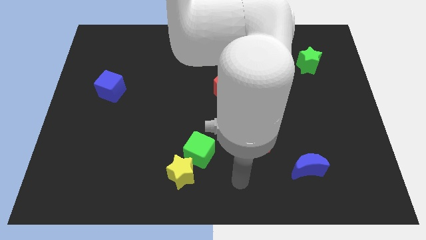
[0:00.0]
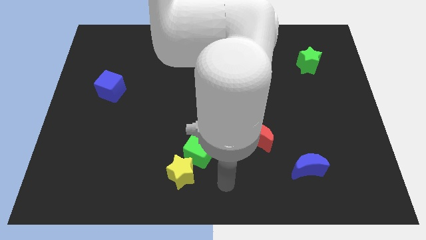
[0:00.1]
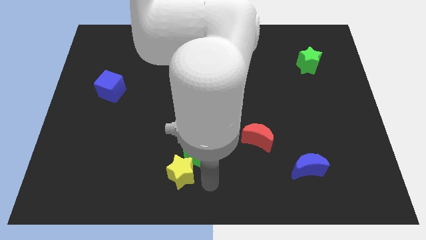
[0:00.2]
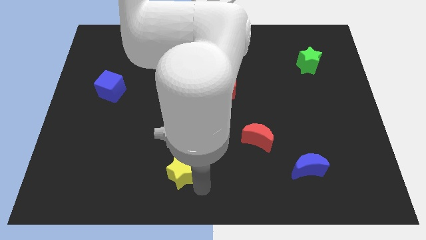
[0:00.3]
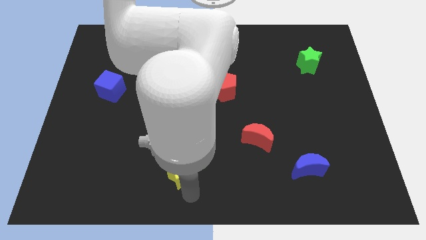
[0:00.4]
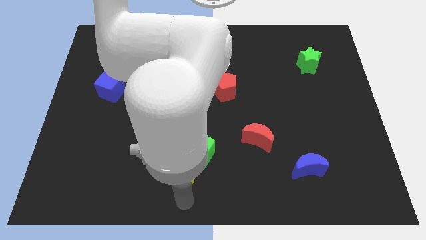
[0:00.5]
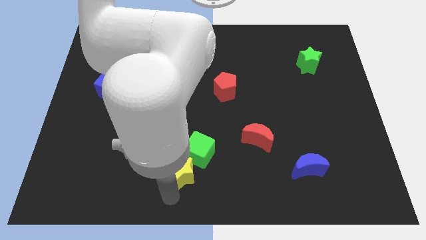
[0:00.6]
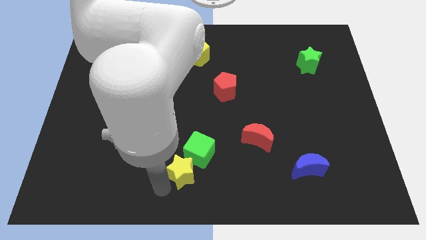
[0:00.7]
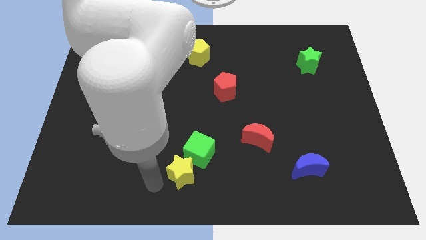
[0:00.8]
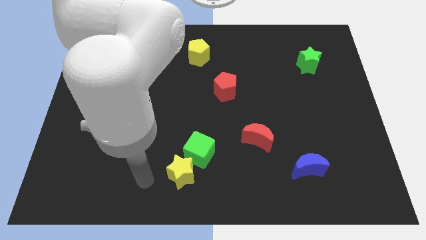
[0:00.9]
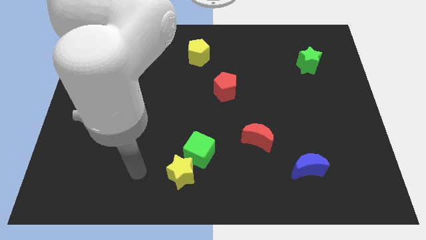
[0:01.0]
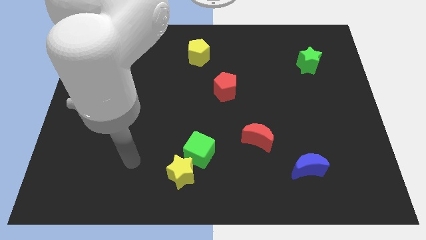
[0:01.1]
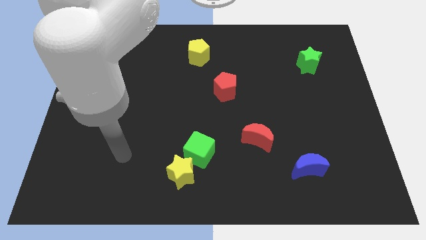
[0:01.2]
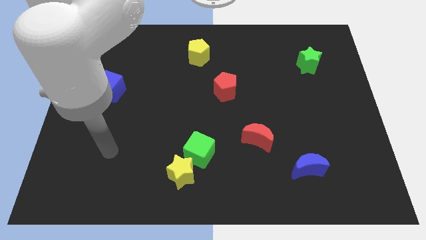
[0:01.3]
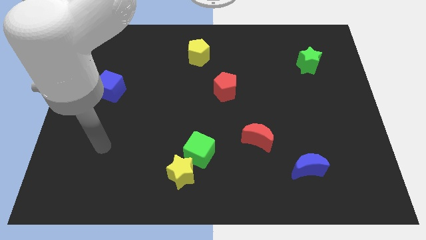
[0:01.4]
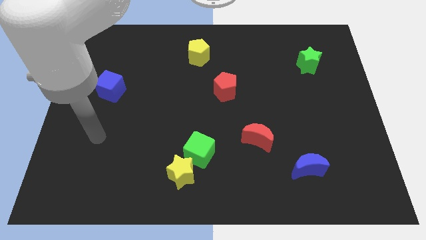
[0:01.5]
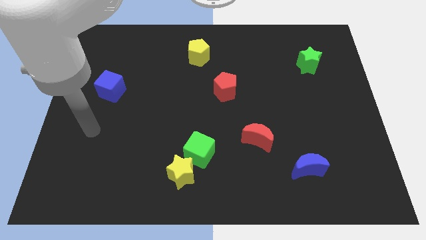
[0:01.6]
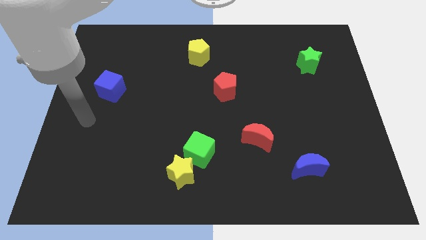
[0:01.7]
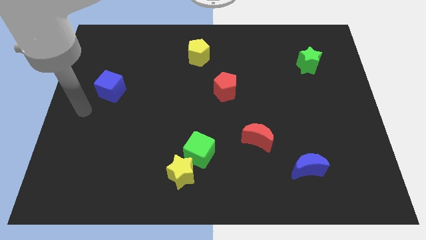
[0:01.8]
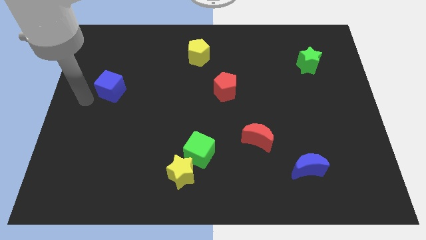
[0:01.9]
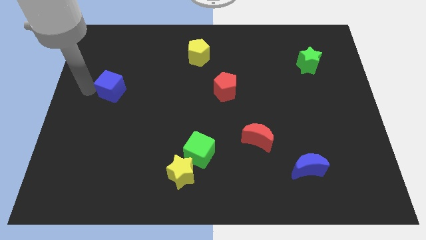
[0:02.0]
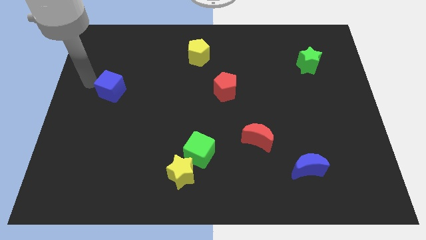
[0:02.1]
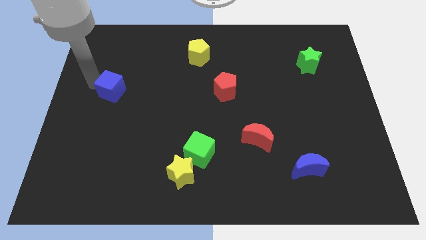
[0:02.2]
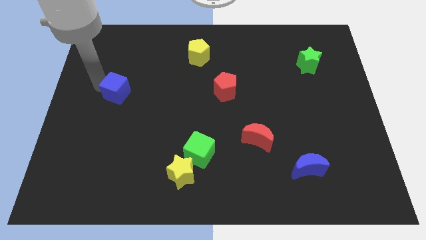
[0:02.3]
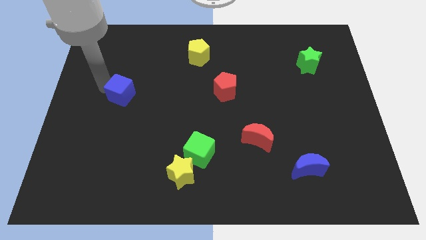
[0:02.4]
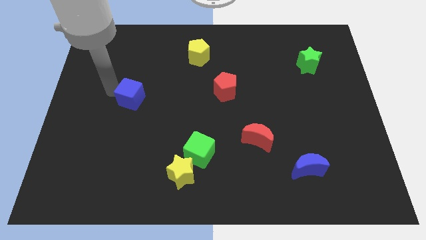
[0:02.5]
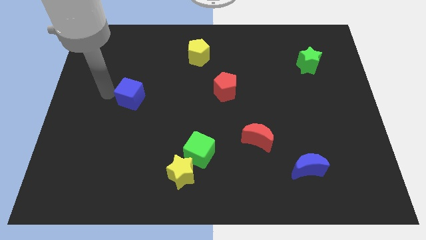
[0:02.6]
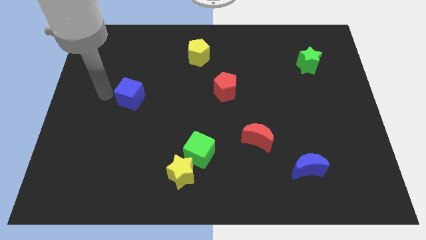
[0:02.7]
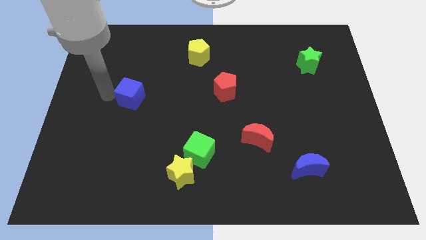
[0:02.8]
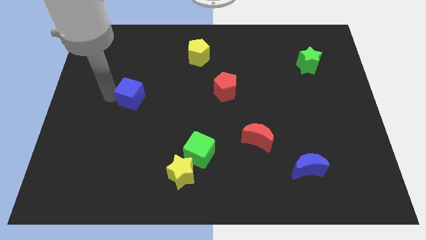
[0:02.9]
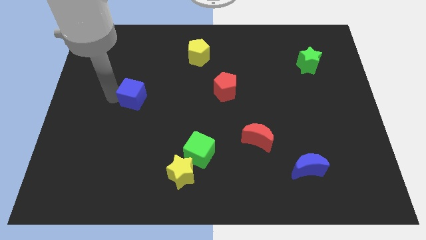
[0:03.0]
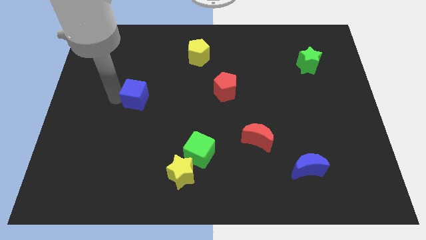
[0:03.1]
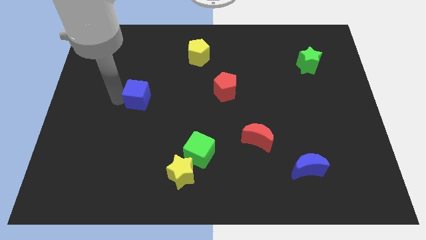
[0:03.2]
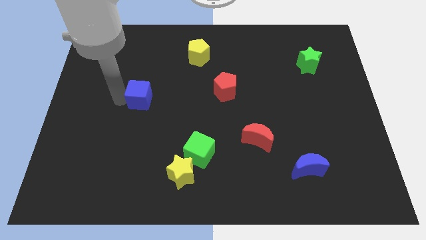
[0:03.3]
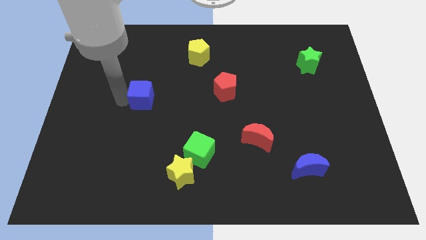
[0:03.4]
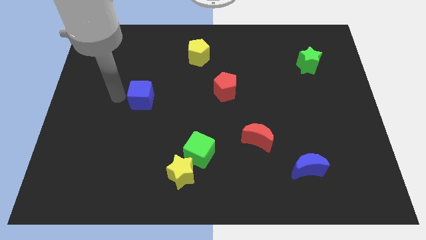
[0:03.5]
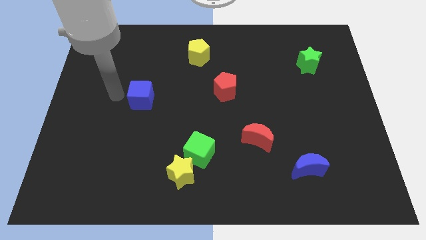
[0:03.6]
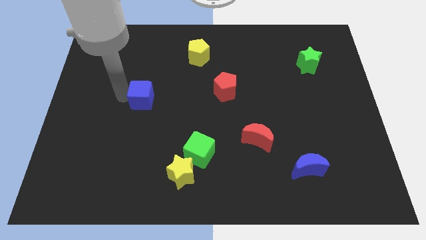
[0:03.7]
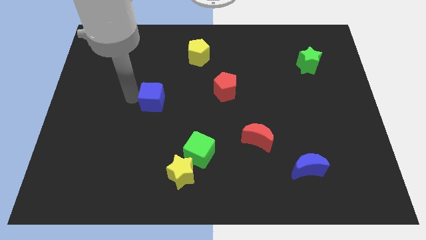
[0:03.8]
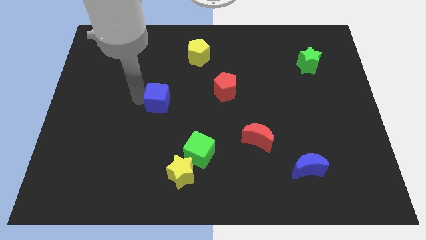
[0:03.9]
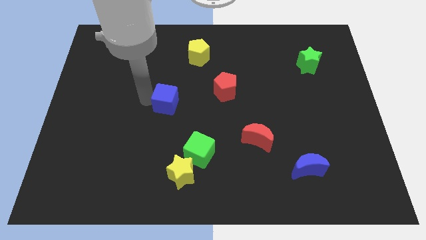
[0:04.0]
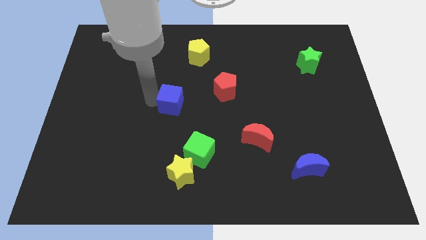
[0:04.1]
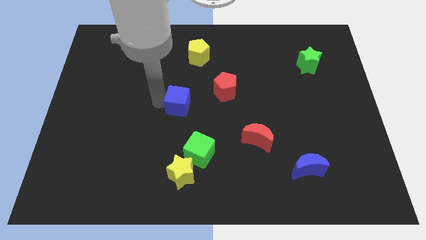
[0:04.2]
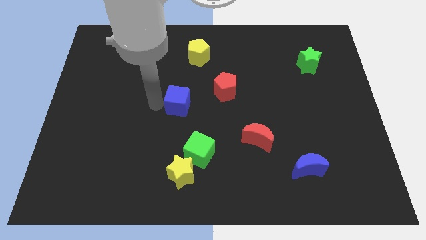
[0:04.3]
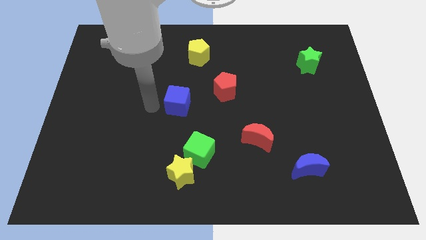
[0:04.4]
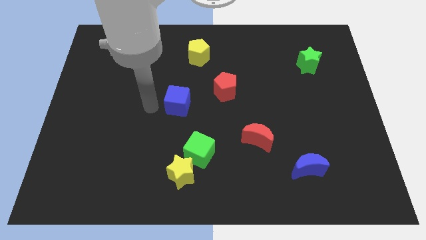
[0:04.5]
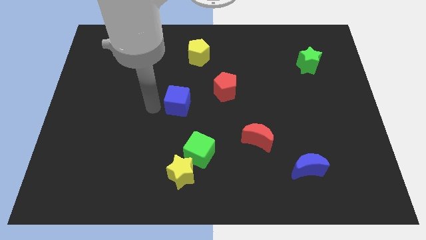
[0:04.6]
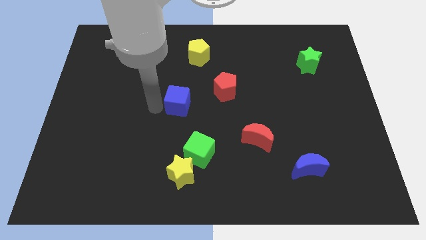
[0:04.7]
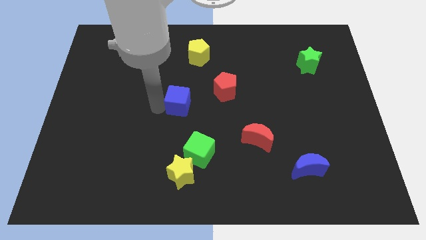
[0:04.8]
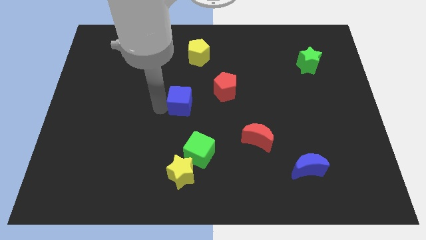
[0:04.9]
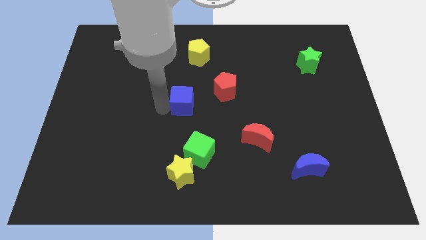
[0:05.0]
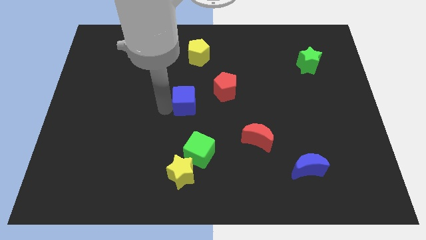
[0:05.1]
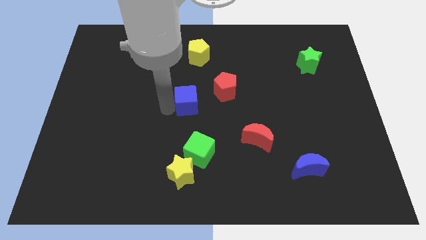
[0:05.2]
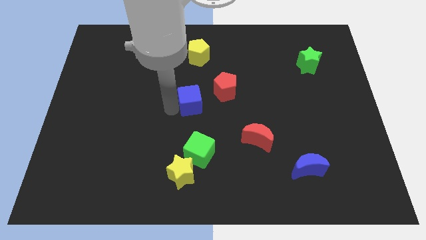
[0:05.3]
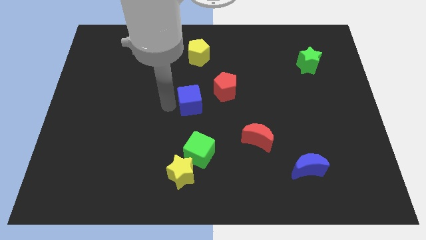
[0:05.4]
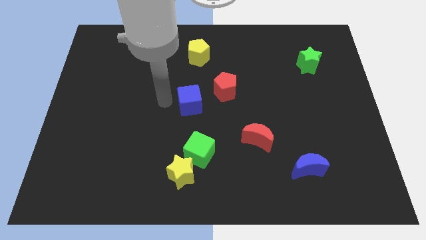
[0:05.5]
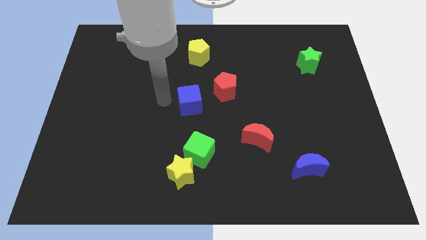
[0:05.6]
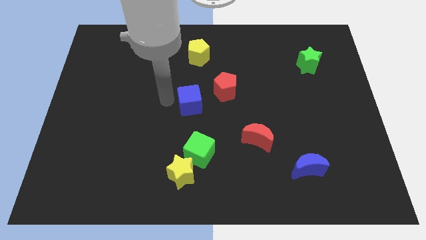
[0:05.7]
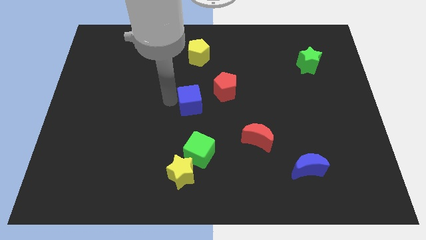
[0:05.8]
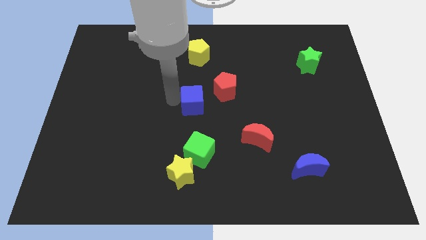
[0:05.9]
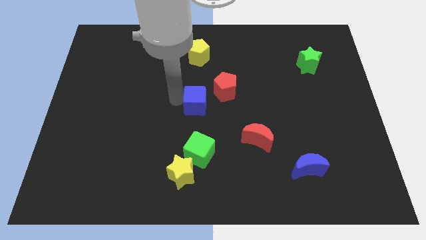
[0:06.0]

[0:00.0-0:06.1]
push the blue cube to the right

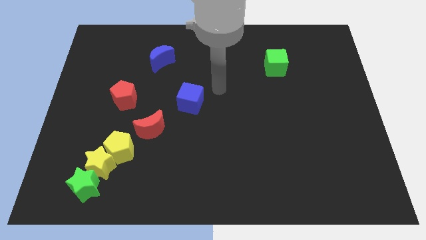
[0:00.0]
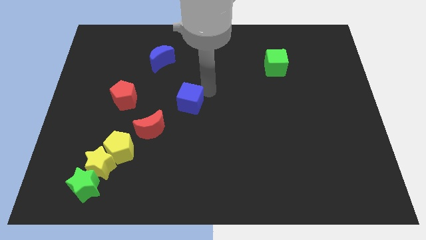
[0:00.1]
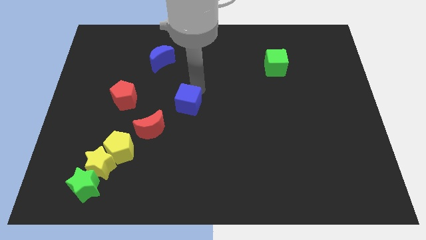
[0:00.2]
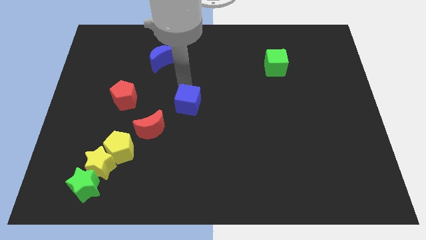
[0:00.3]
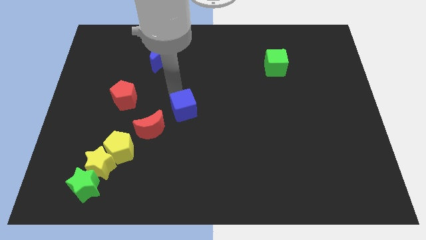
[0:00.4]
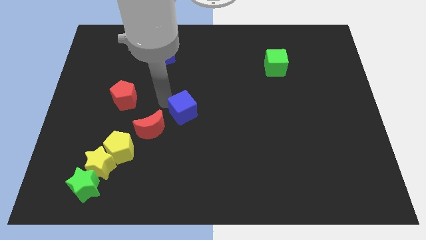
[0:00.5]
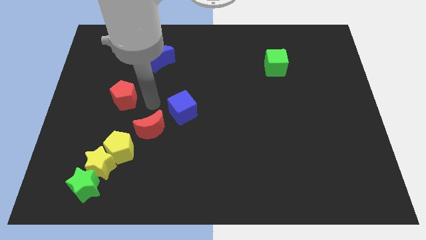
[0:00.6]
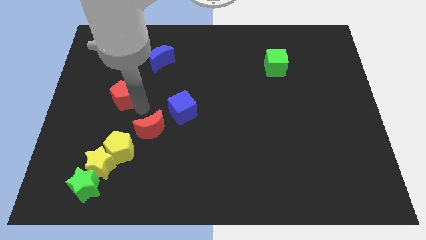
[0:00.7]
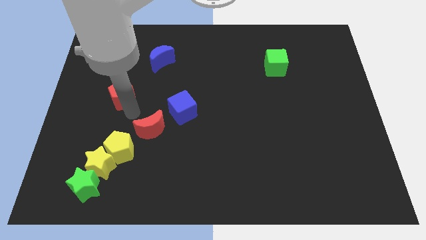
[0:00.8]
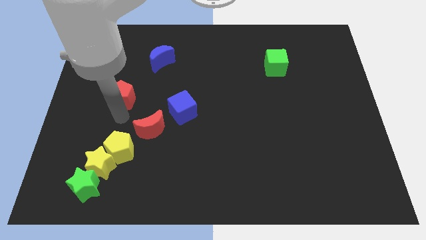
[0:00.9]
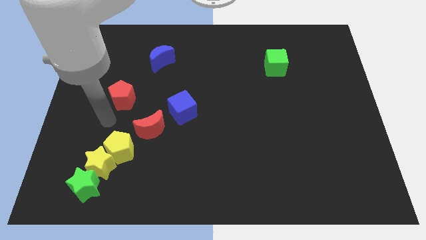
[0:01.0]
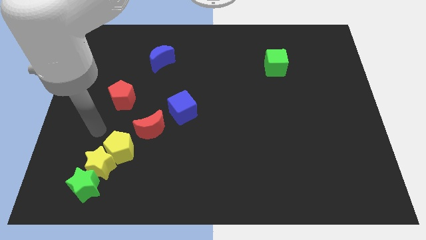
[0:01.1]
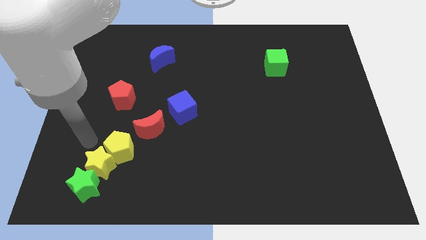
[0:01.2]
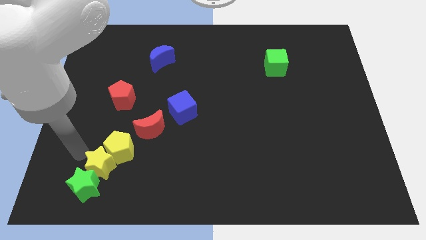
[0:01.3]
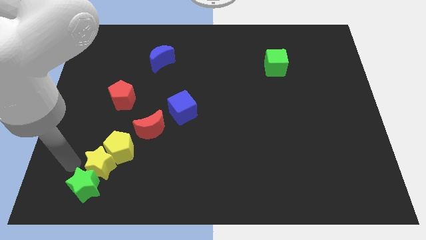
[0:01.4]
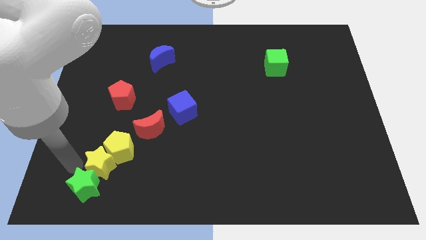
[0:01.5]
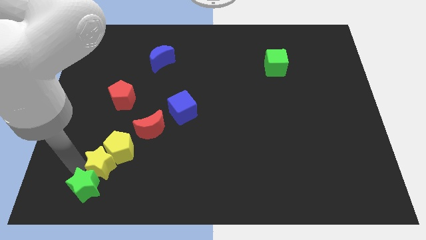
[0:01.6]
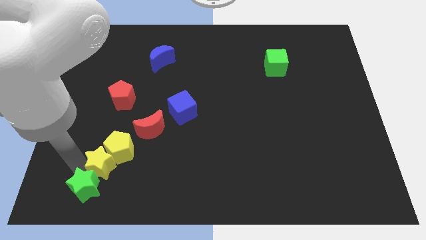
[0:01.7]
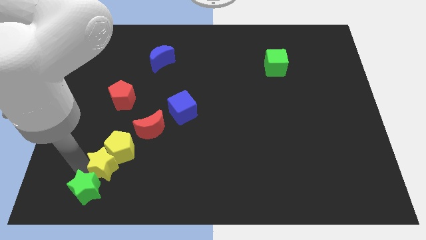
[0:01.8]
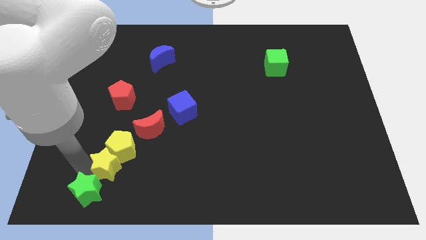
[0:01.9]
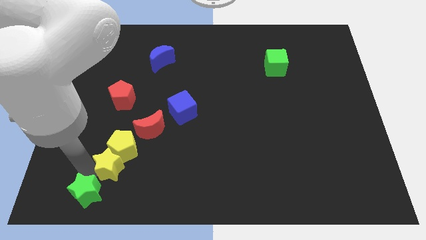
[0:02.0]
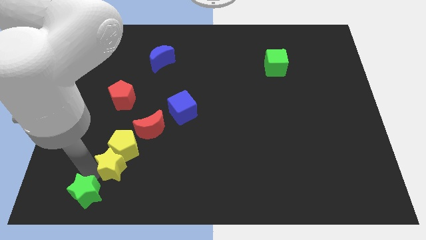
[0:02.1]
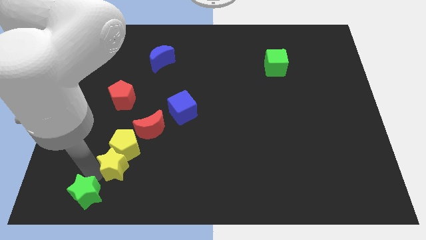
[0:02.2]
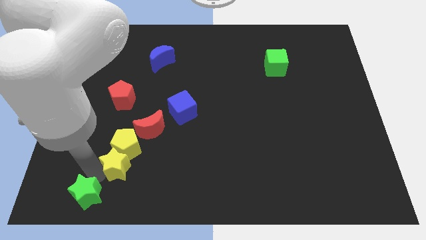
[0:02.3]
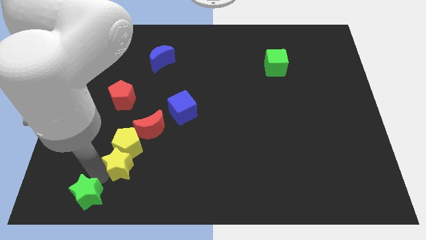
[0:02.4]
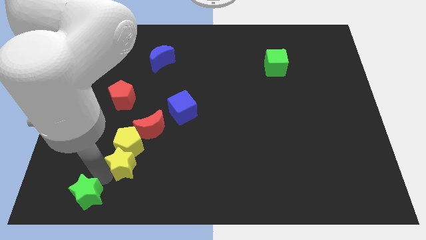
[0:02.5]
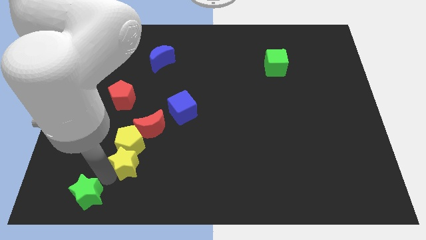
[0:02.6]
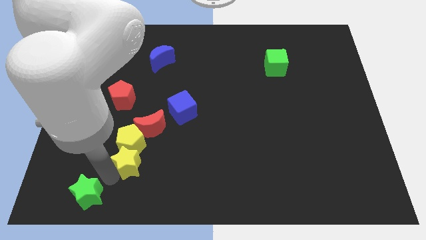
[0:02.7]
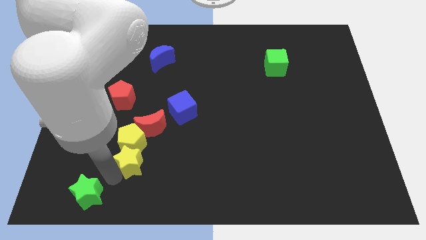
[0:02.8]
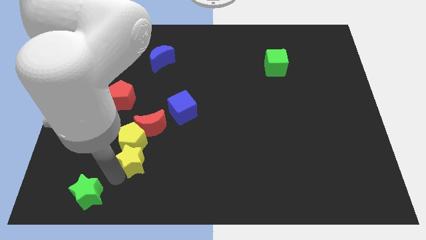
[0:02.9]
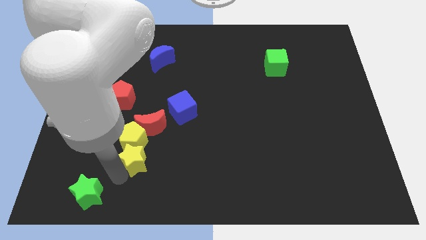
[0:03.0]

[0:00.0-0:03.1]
push the yellow star right a bit
